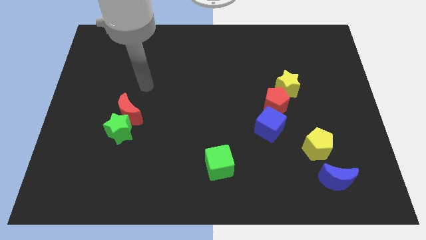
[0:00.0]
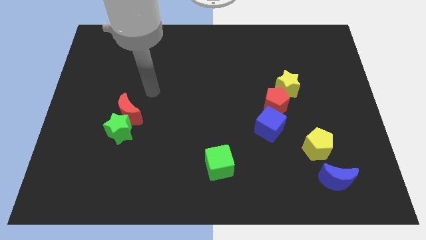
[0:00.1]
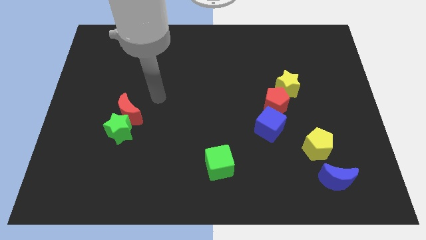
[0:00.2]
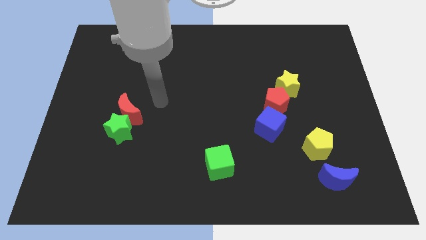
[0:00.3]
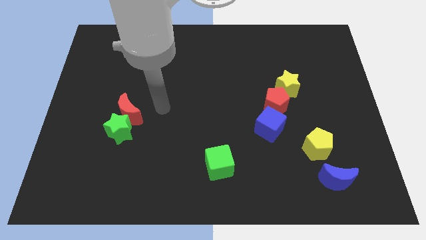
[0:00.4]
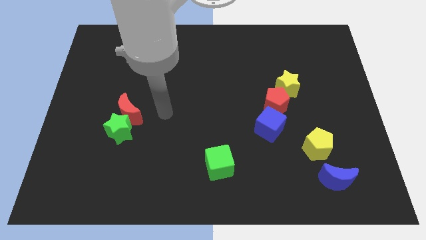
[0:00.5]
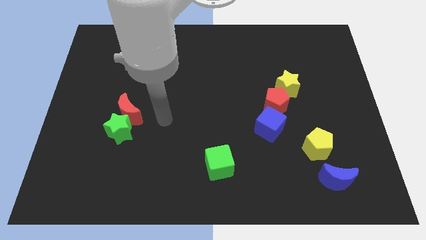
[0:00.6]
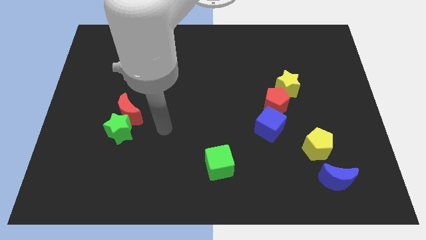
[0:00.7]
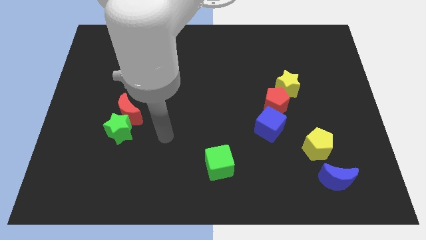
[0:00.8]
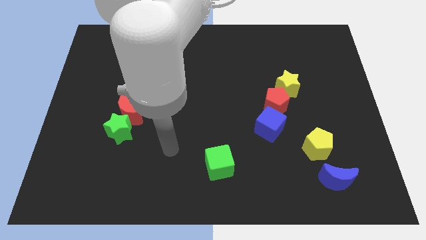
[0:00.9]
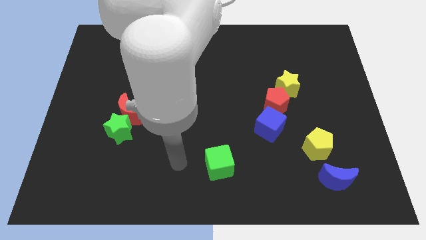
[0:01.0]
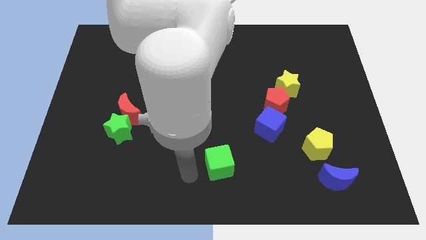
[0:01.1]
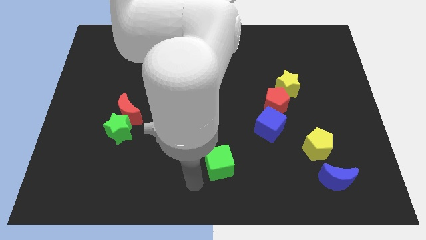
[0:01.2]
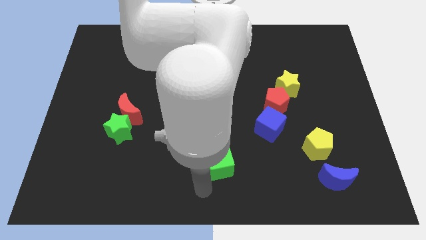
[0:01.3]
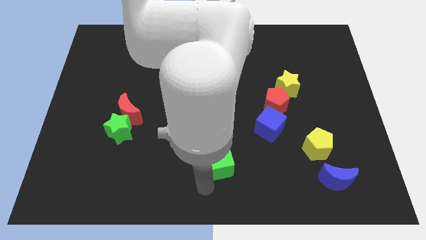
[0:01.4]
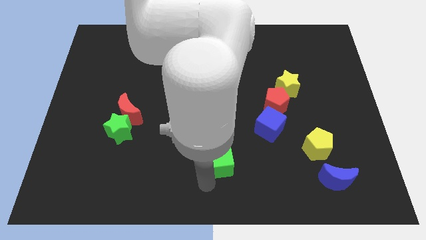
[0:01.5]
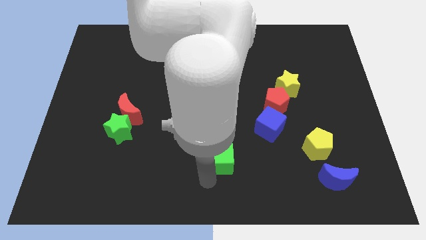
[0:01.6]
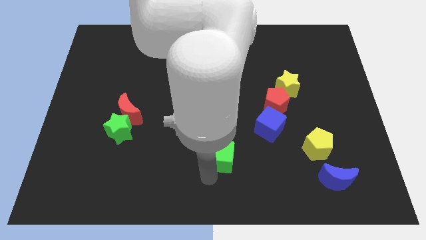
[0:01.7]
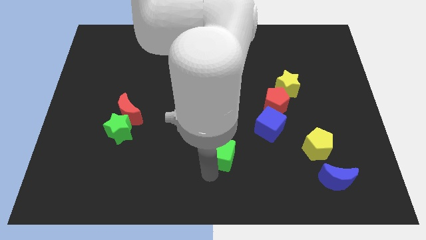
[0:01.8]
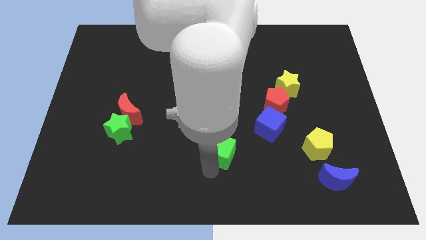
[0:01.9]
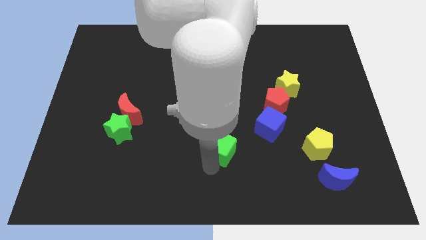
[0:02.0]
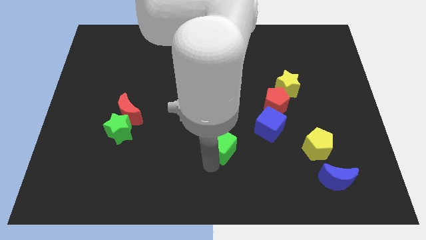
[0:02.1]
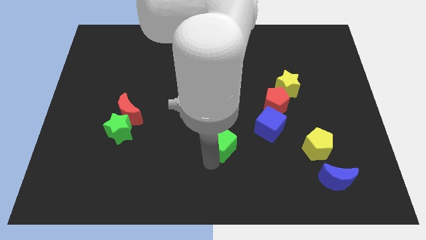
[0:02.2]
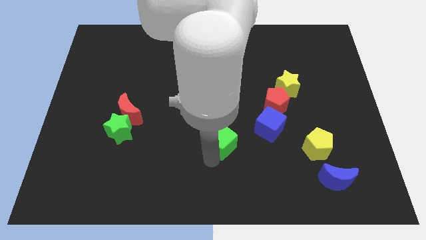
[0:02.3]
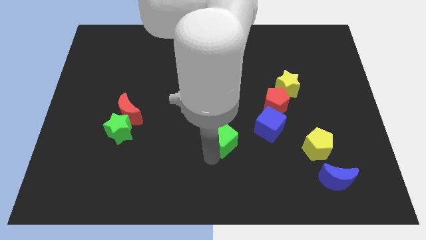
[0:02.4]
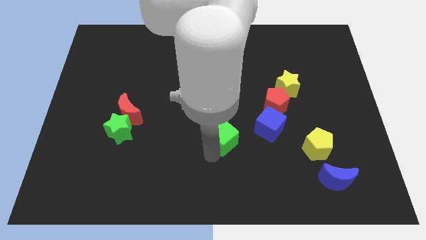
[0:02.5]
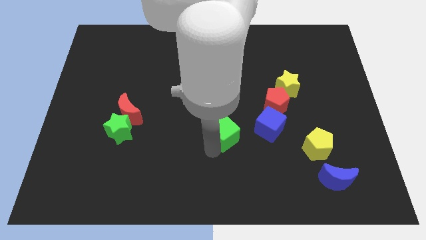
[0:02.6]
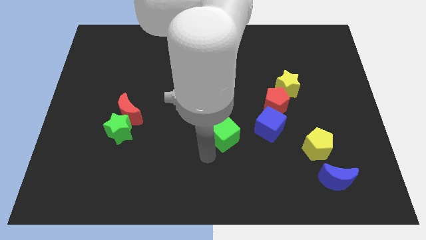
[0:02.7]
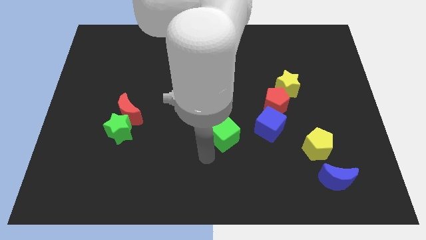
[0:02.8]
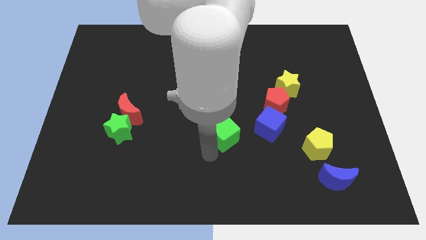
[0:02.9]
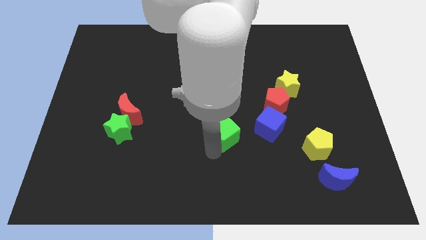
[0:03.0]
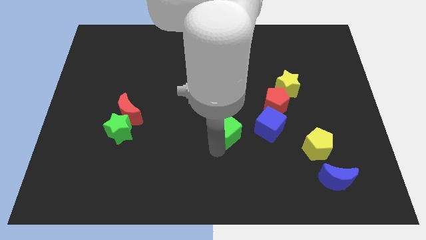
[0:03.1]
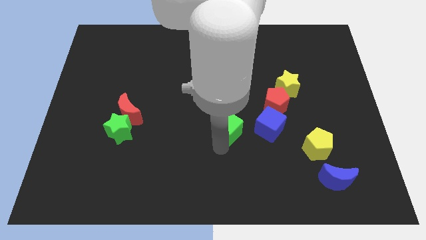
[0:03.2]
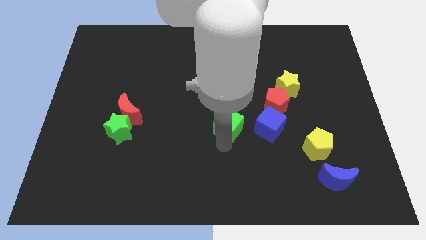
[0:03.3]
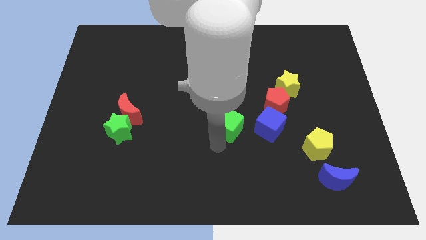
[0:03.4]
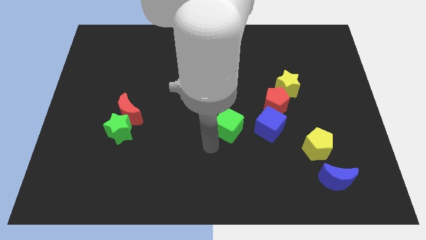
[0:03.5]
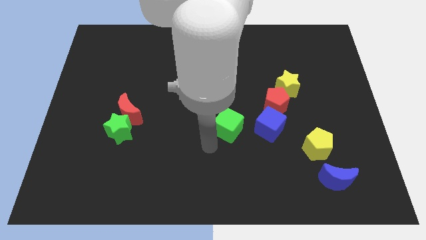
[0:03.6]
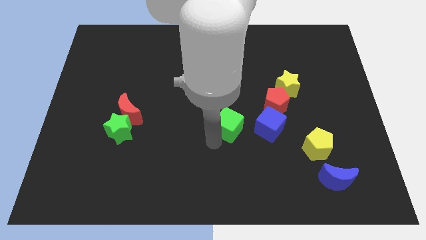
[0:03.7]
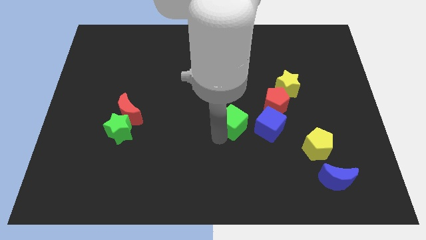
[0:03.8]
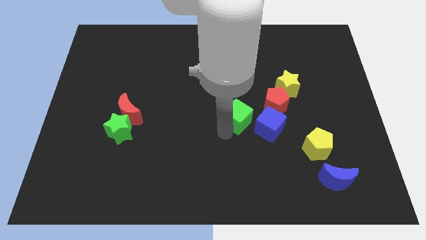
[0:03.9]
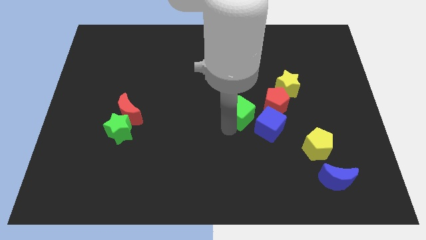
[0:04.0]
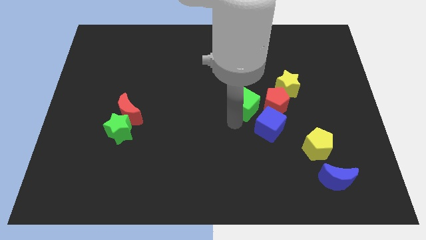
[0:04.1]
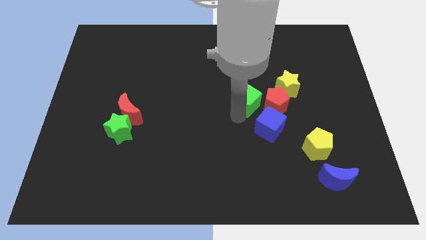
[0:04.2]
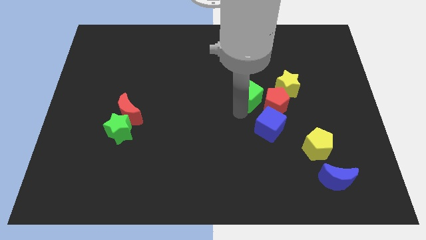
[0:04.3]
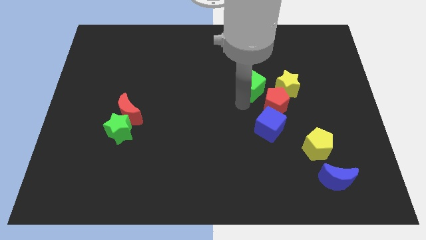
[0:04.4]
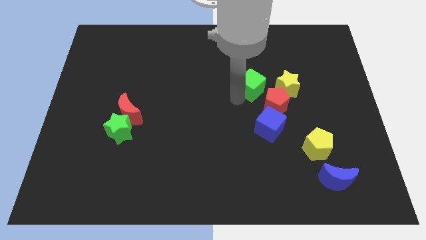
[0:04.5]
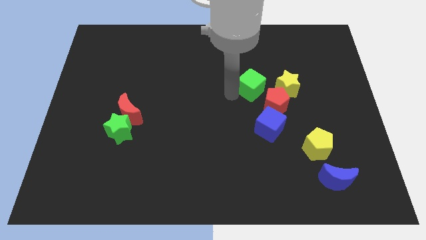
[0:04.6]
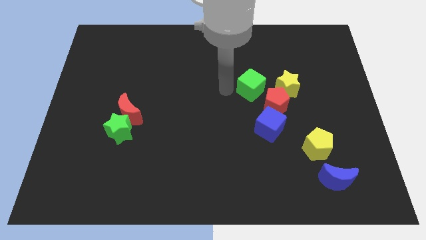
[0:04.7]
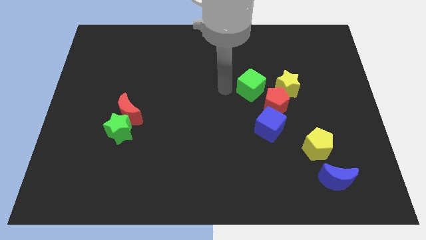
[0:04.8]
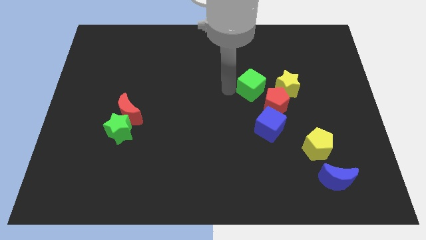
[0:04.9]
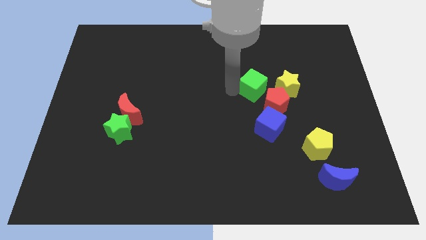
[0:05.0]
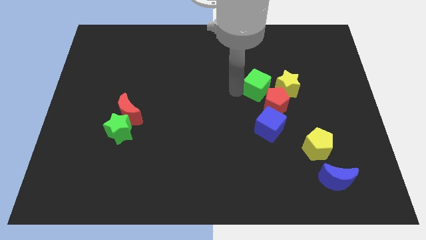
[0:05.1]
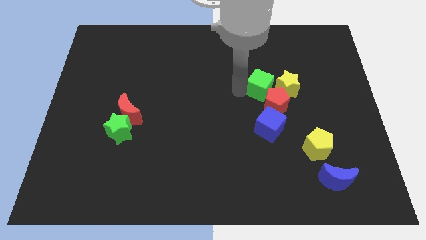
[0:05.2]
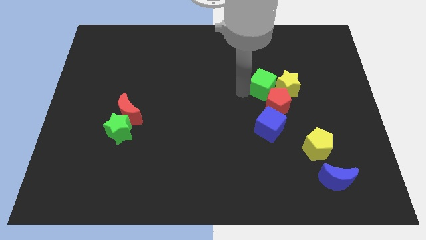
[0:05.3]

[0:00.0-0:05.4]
move the green cube next to the yellow star

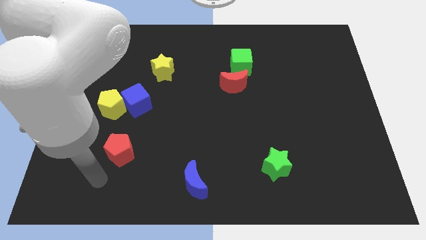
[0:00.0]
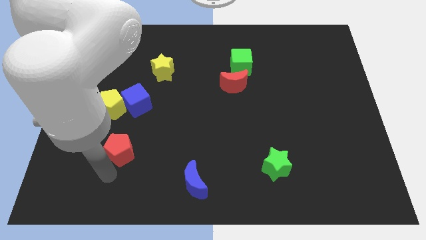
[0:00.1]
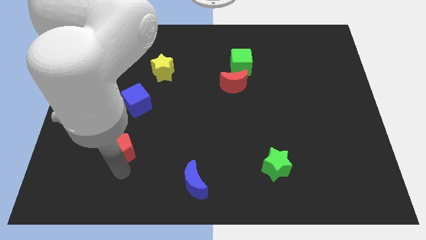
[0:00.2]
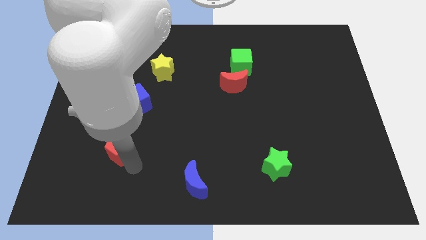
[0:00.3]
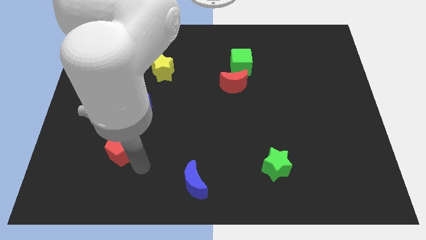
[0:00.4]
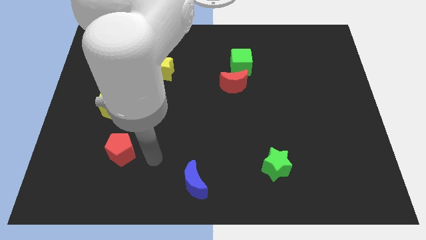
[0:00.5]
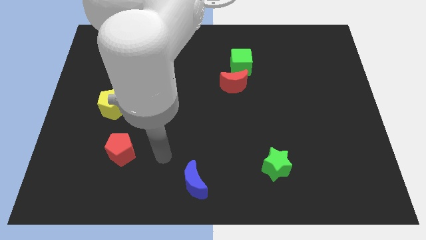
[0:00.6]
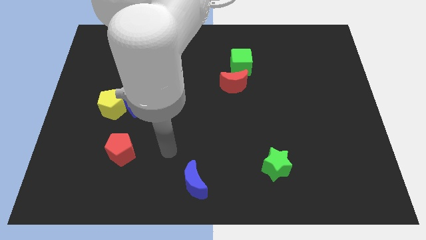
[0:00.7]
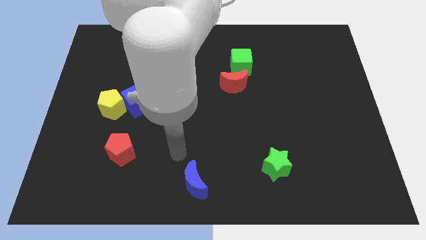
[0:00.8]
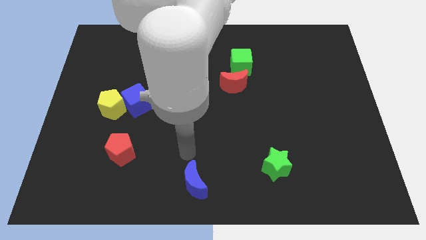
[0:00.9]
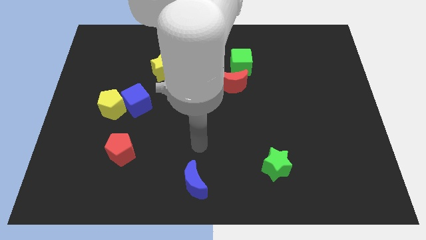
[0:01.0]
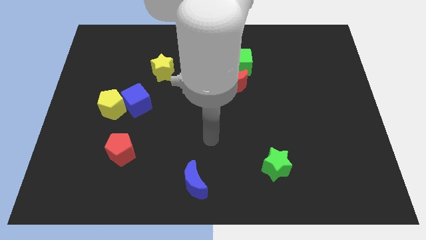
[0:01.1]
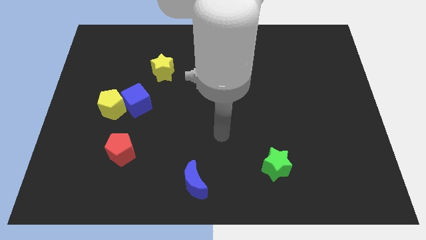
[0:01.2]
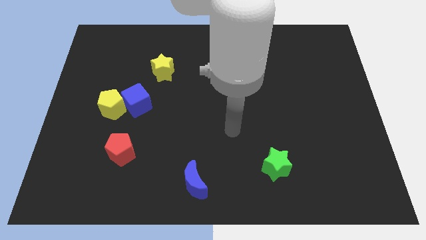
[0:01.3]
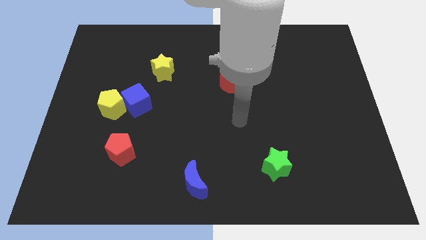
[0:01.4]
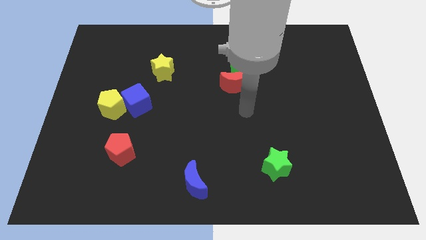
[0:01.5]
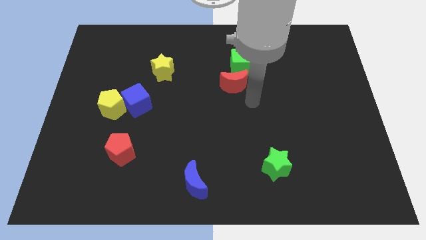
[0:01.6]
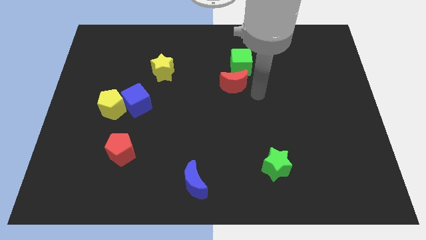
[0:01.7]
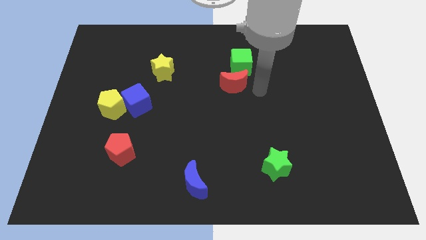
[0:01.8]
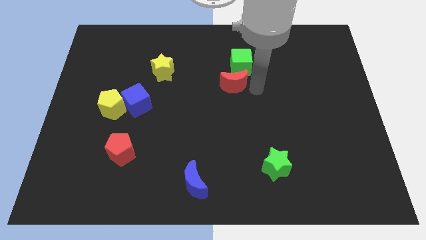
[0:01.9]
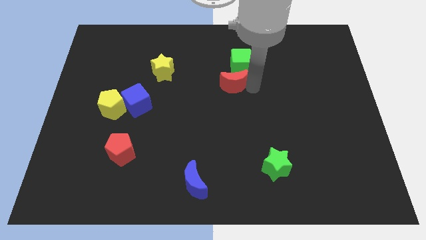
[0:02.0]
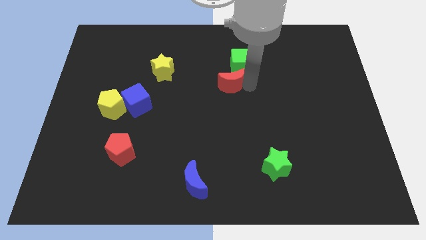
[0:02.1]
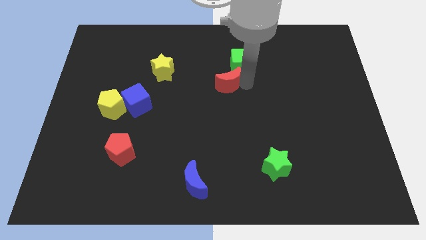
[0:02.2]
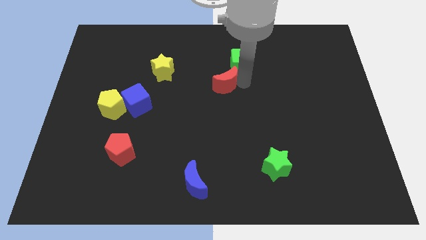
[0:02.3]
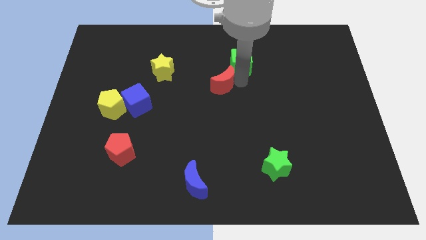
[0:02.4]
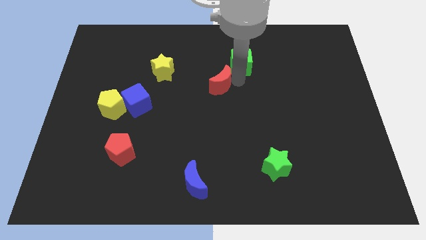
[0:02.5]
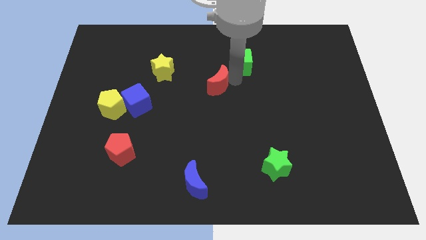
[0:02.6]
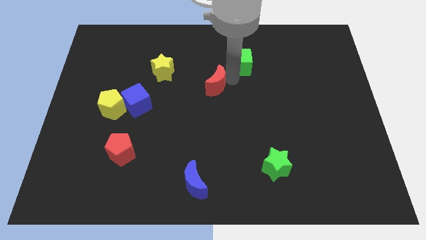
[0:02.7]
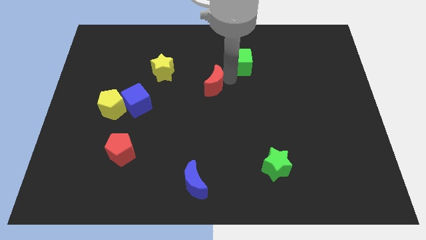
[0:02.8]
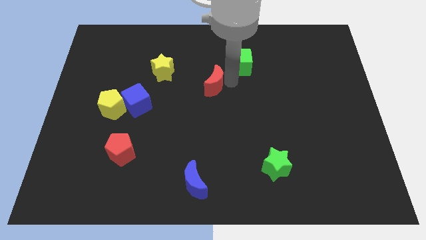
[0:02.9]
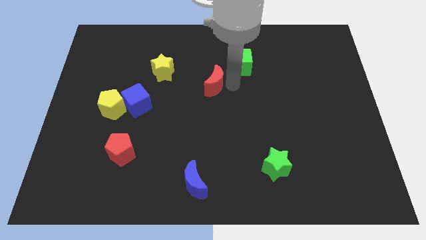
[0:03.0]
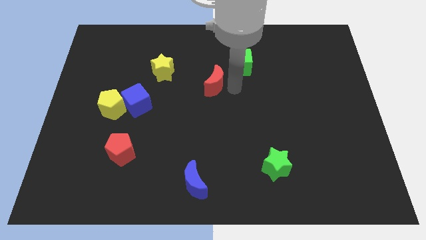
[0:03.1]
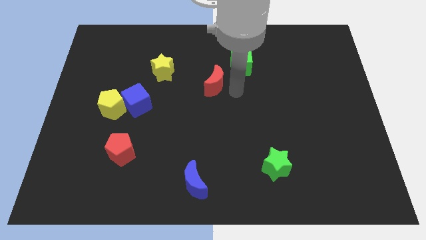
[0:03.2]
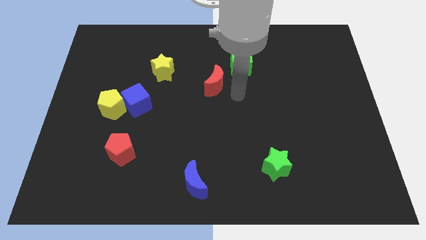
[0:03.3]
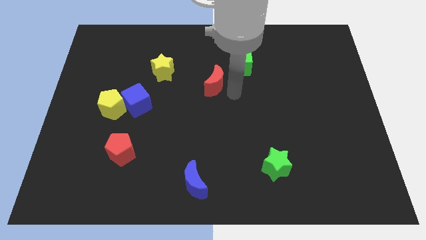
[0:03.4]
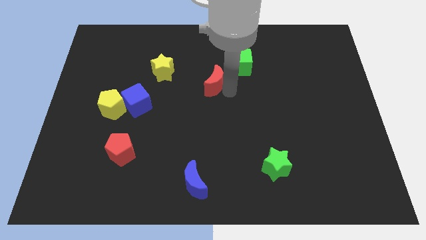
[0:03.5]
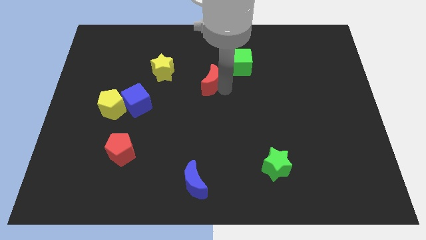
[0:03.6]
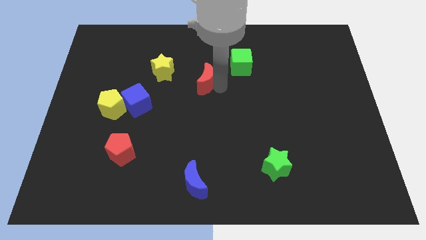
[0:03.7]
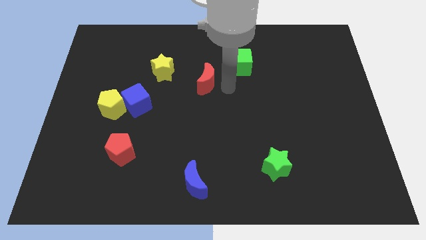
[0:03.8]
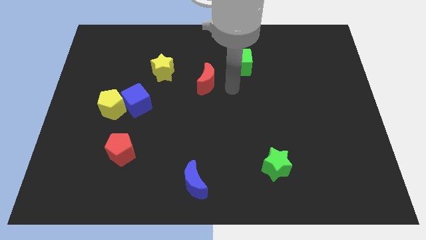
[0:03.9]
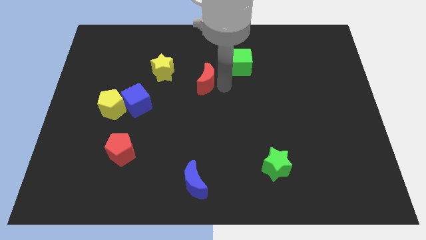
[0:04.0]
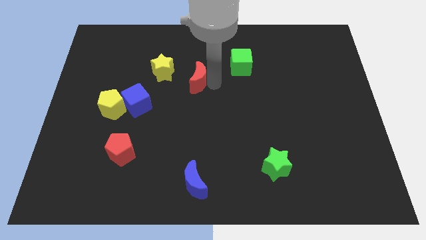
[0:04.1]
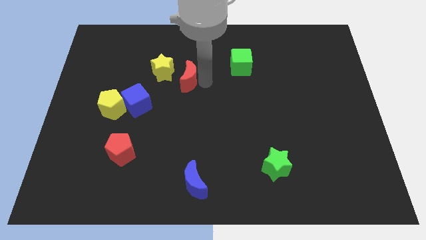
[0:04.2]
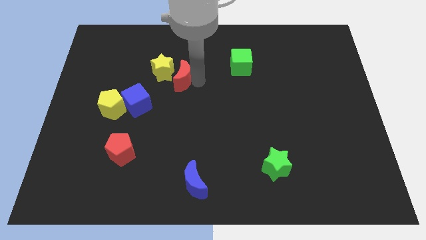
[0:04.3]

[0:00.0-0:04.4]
push the red moon towards the yellow star
